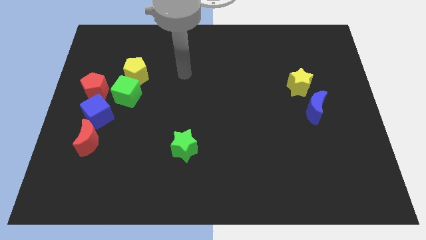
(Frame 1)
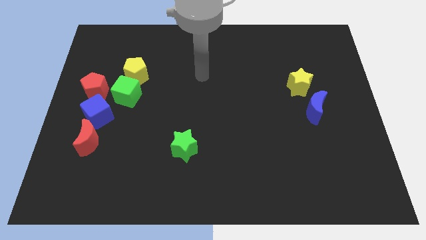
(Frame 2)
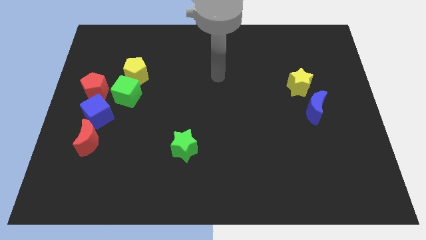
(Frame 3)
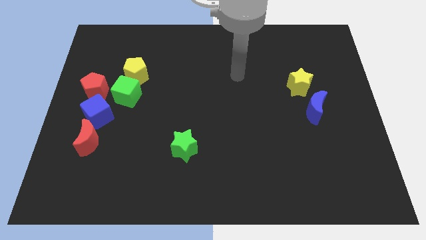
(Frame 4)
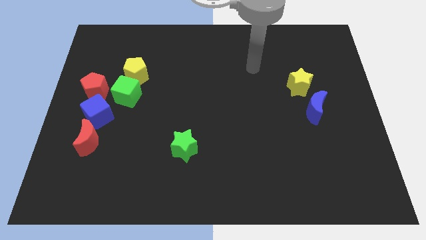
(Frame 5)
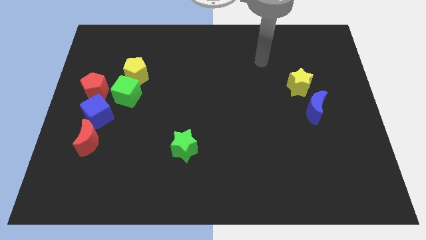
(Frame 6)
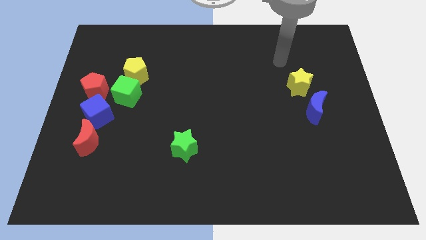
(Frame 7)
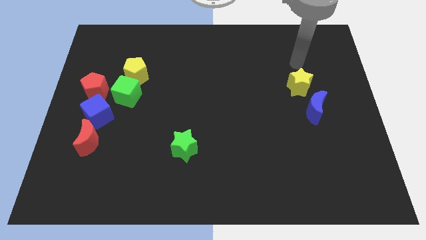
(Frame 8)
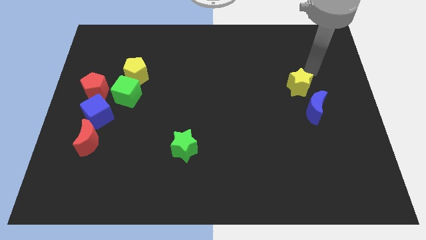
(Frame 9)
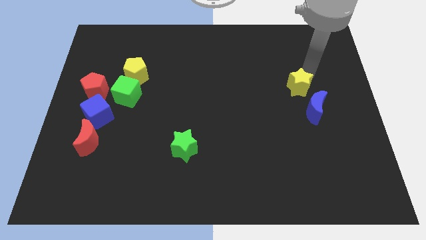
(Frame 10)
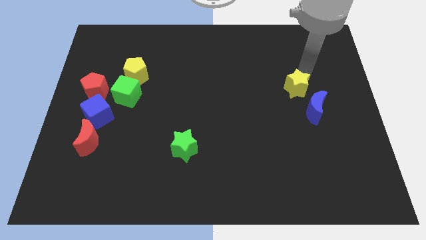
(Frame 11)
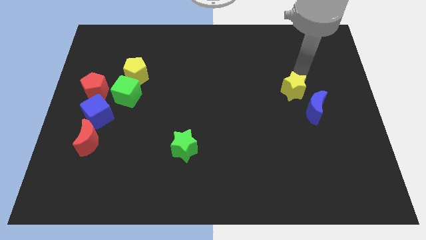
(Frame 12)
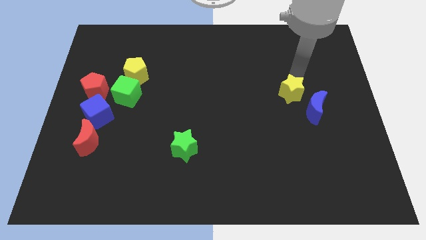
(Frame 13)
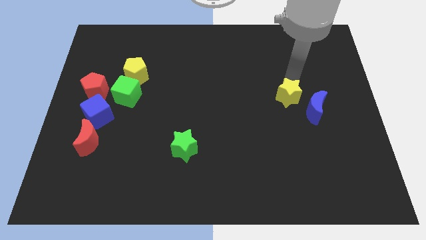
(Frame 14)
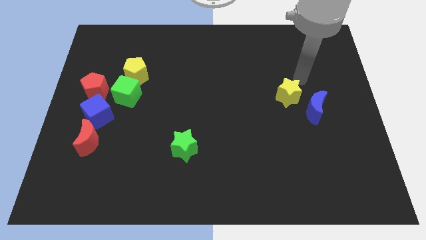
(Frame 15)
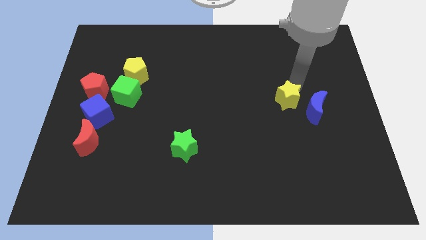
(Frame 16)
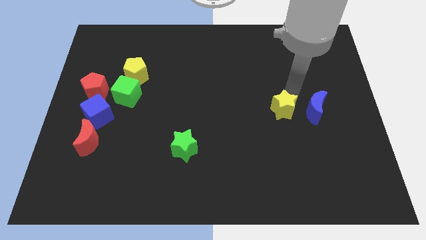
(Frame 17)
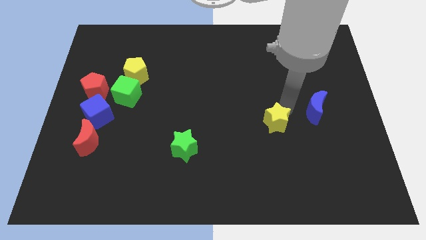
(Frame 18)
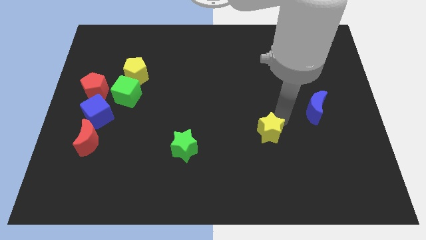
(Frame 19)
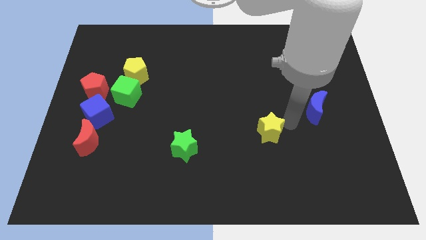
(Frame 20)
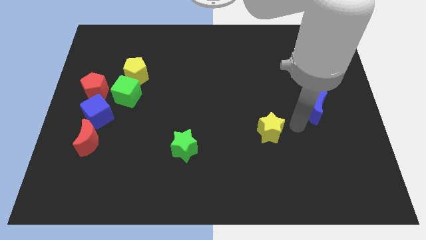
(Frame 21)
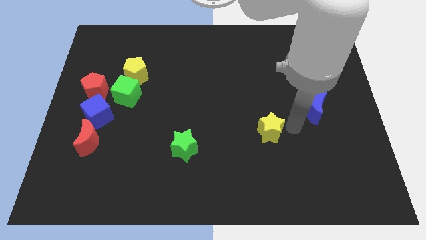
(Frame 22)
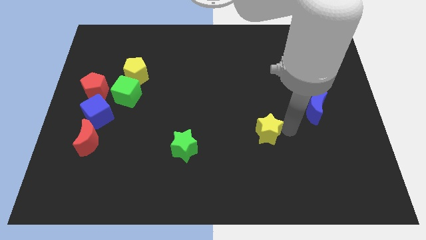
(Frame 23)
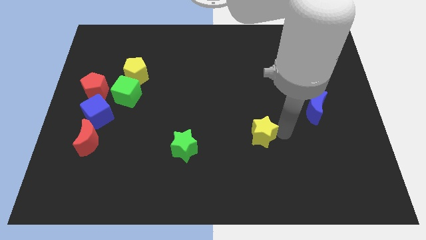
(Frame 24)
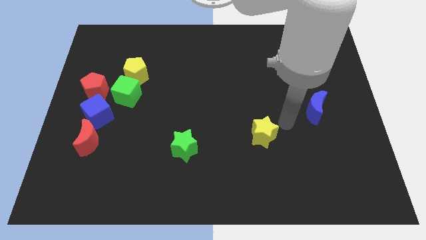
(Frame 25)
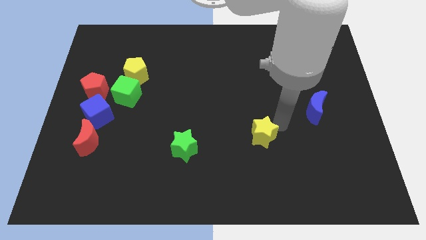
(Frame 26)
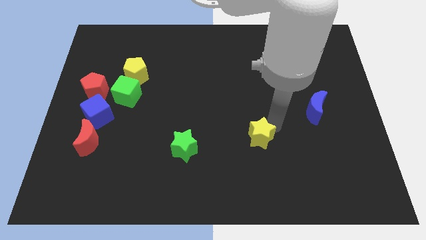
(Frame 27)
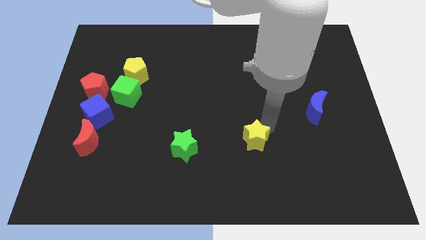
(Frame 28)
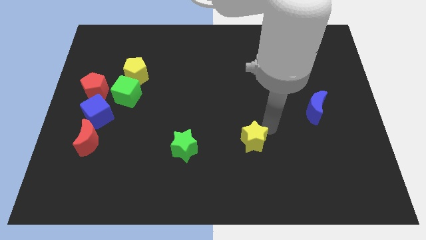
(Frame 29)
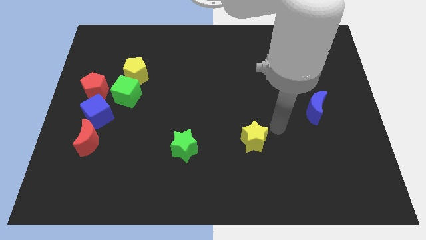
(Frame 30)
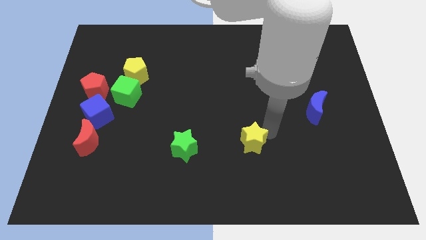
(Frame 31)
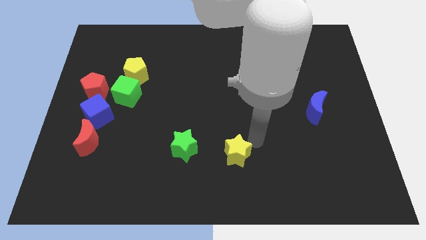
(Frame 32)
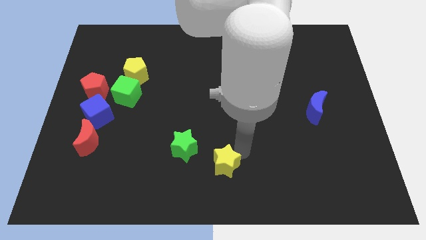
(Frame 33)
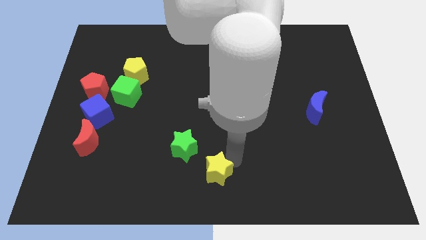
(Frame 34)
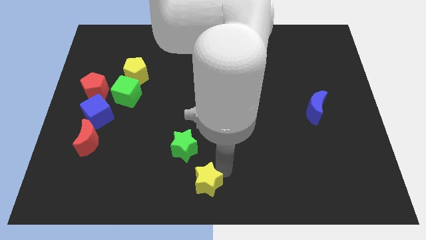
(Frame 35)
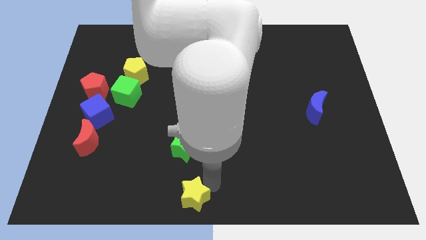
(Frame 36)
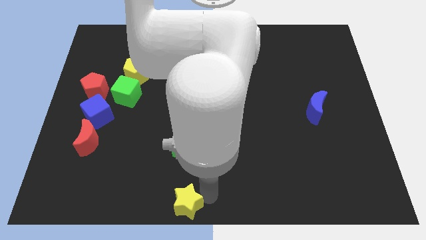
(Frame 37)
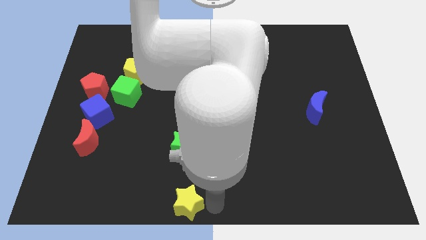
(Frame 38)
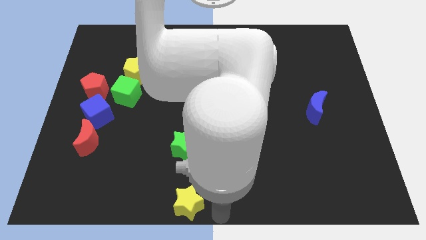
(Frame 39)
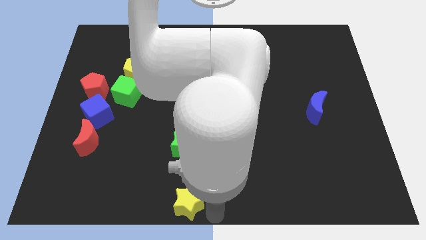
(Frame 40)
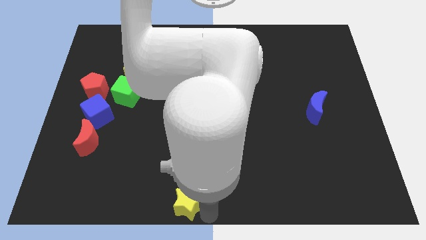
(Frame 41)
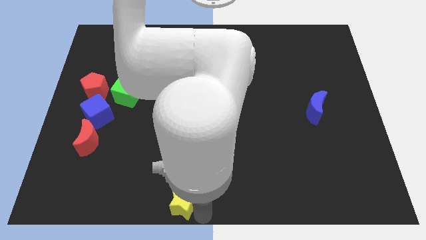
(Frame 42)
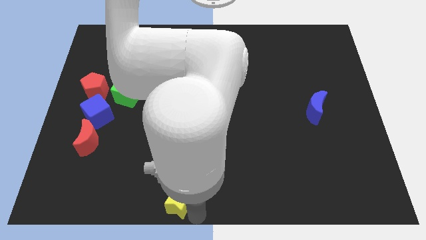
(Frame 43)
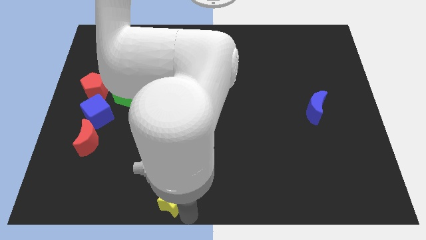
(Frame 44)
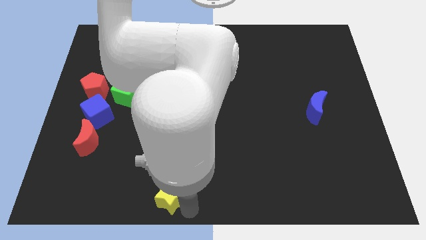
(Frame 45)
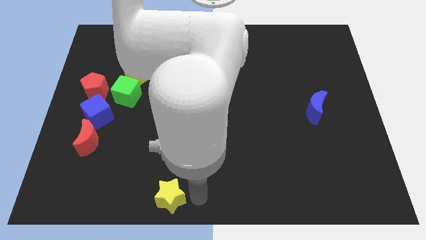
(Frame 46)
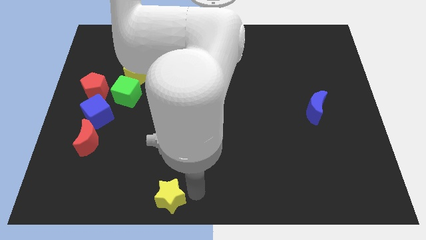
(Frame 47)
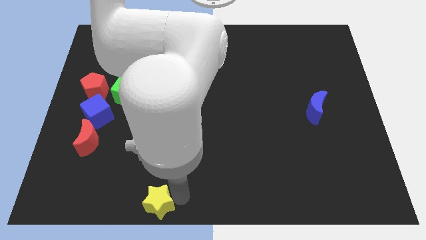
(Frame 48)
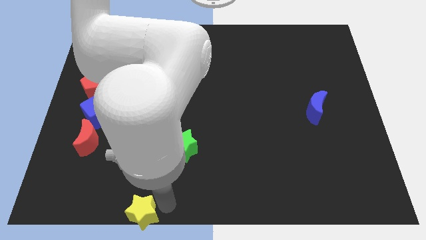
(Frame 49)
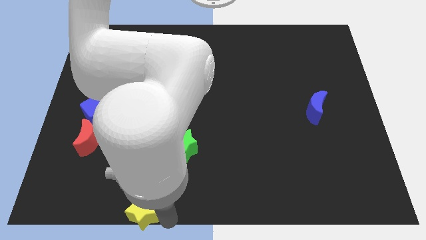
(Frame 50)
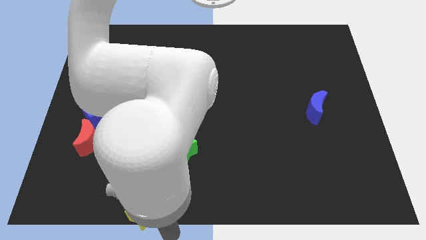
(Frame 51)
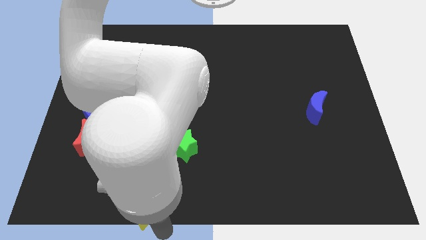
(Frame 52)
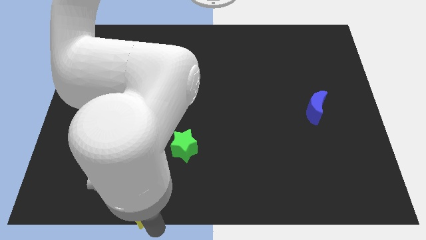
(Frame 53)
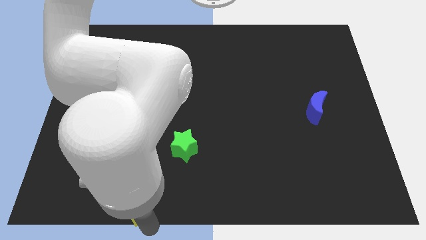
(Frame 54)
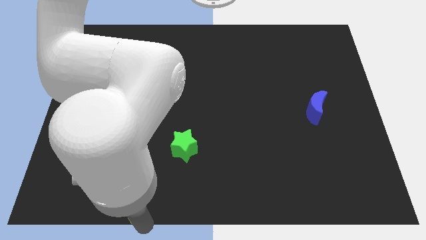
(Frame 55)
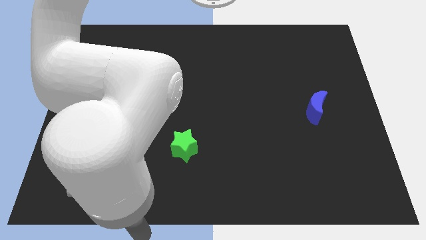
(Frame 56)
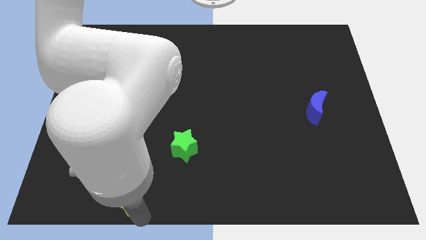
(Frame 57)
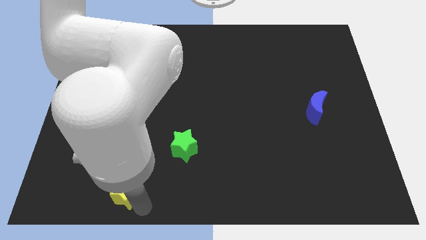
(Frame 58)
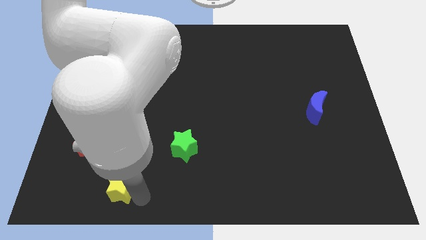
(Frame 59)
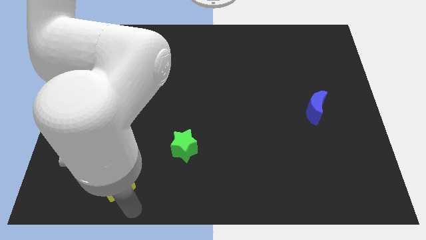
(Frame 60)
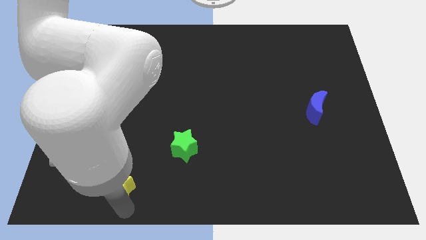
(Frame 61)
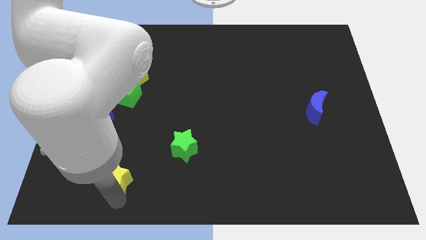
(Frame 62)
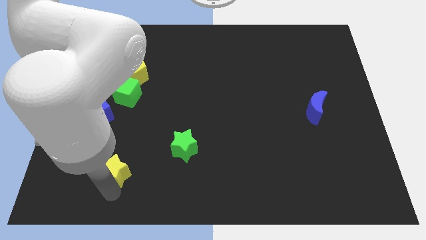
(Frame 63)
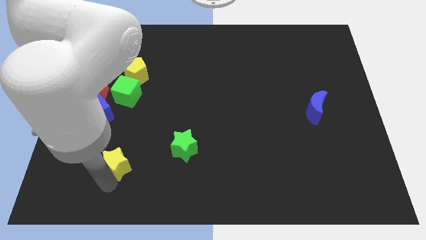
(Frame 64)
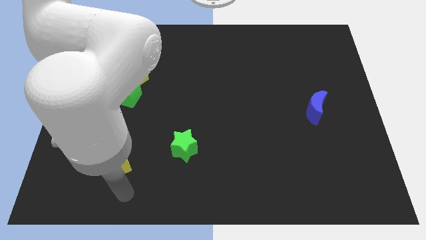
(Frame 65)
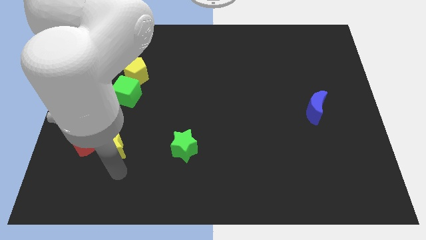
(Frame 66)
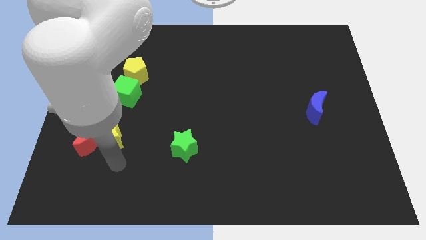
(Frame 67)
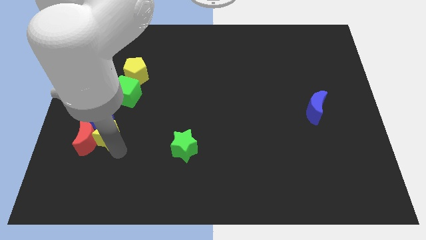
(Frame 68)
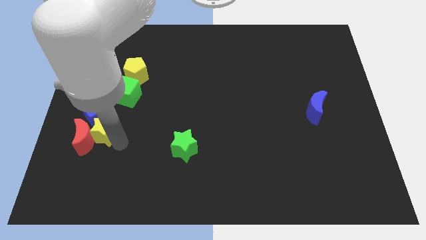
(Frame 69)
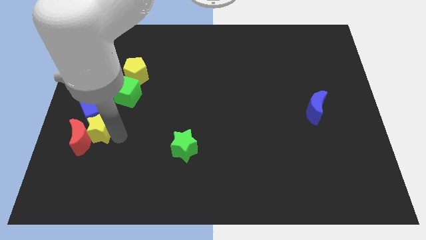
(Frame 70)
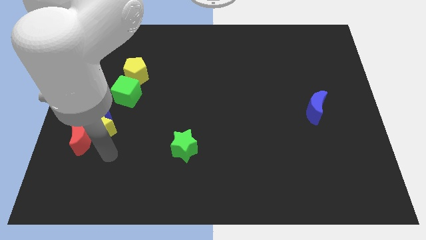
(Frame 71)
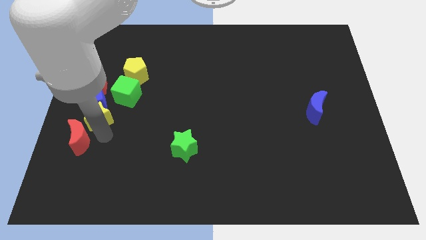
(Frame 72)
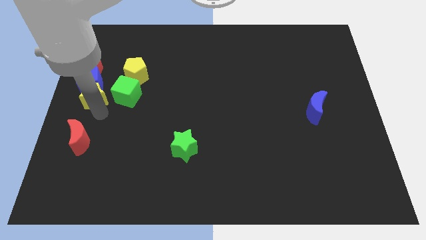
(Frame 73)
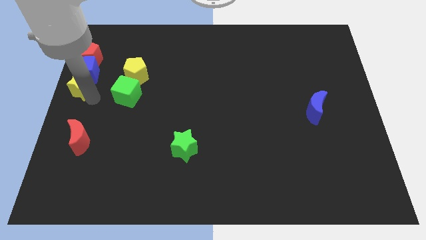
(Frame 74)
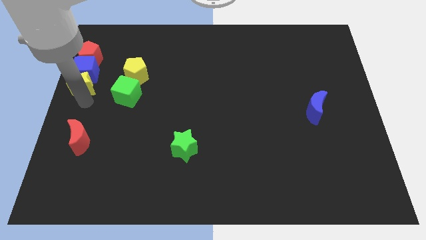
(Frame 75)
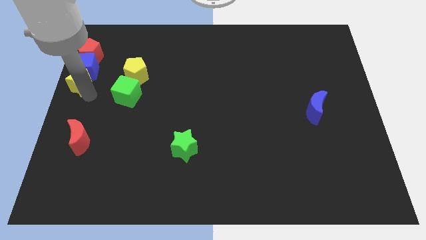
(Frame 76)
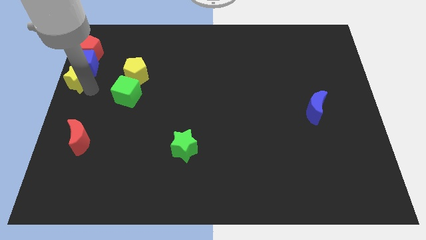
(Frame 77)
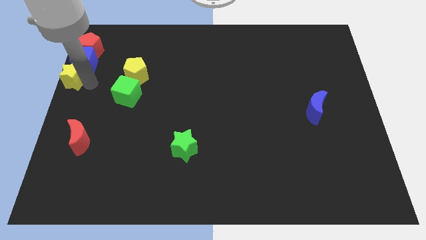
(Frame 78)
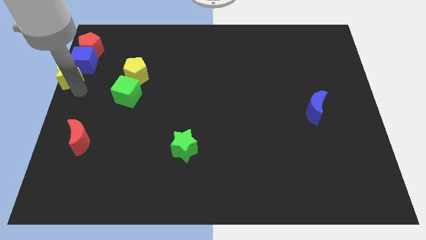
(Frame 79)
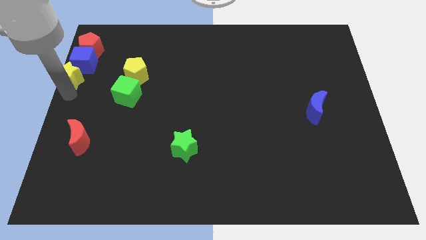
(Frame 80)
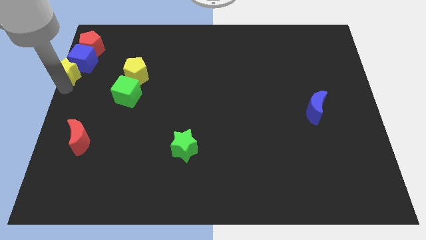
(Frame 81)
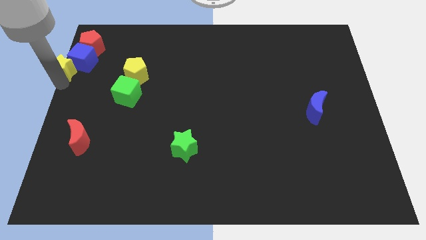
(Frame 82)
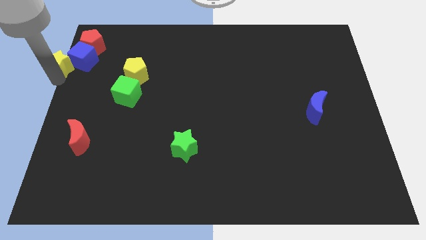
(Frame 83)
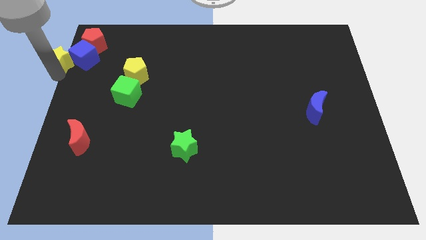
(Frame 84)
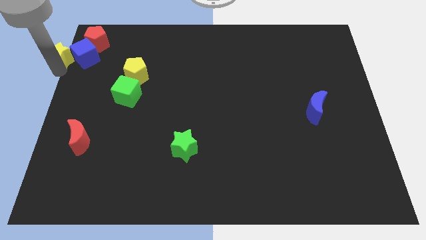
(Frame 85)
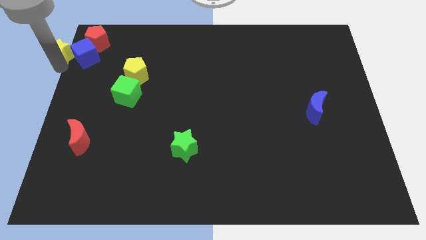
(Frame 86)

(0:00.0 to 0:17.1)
slide the yellow star to the top left corner
